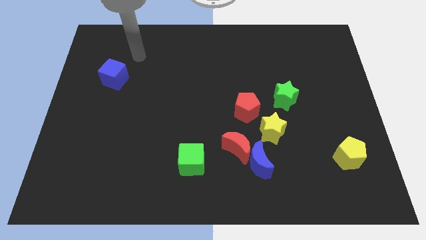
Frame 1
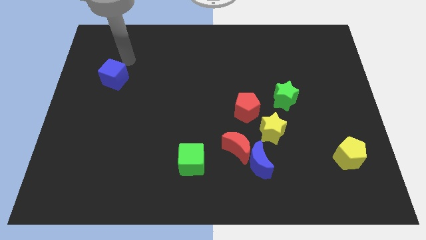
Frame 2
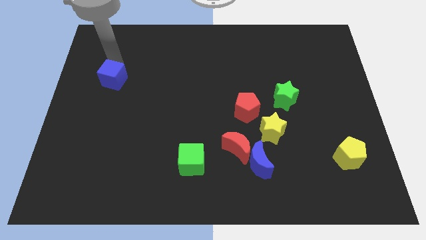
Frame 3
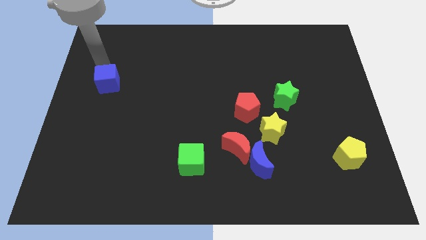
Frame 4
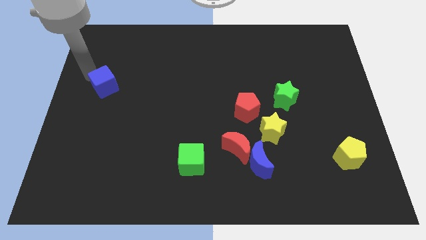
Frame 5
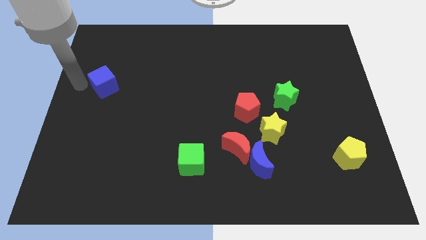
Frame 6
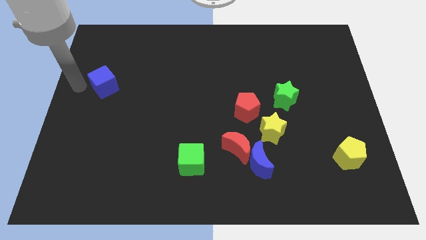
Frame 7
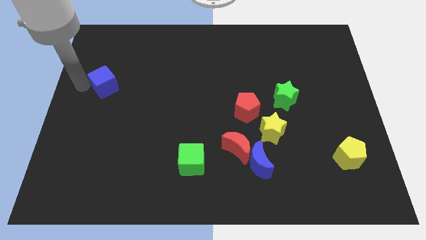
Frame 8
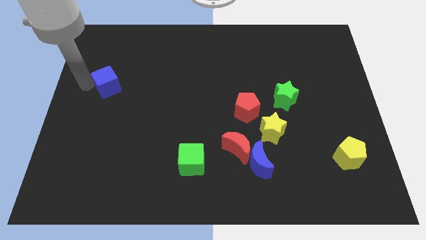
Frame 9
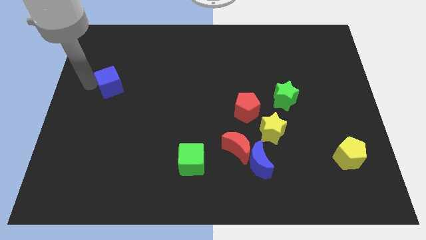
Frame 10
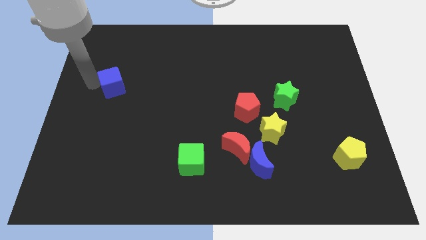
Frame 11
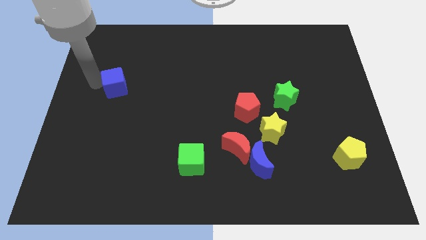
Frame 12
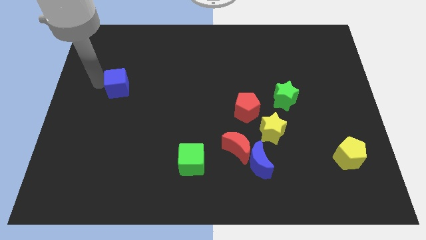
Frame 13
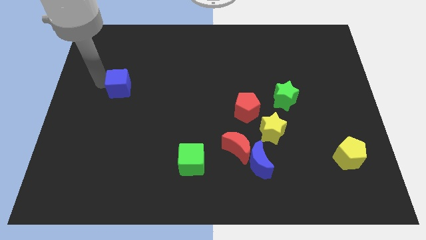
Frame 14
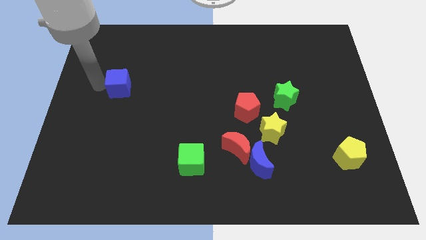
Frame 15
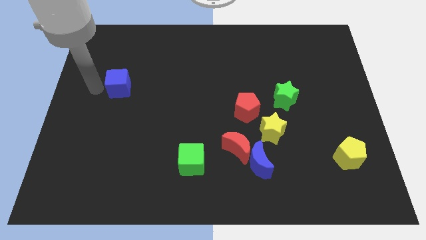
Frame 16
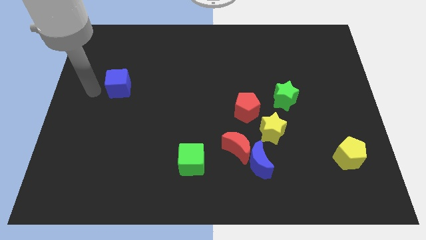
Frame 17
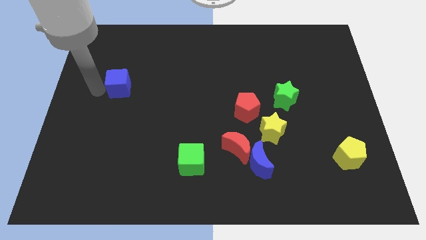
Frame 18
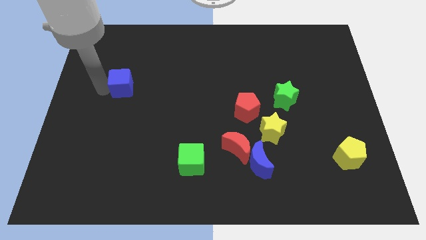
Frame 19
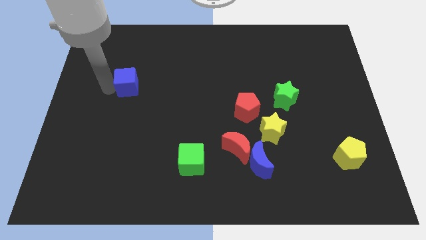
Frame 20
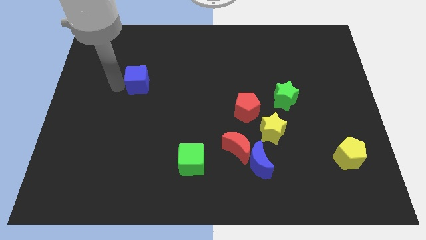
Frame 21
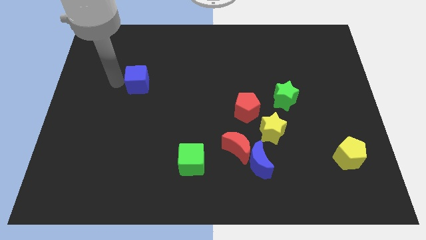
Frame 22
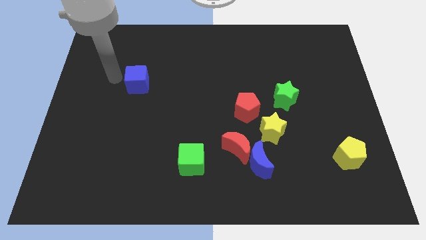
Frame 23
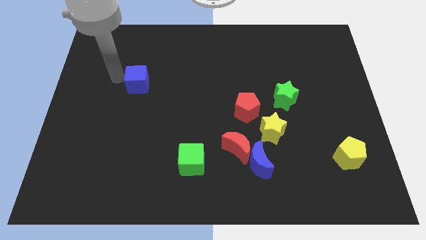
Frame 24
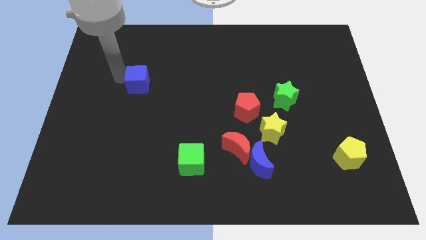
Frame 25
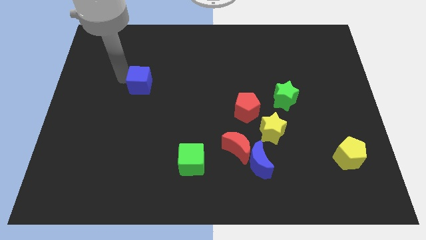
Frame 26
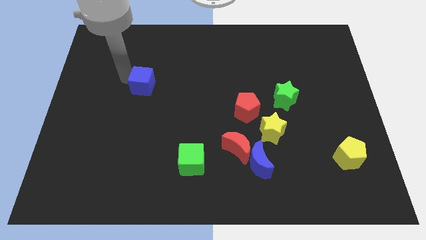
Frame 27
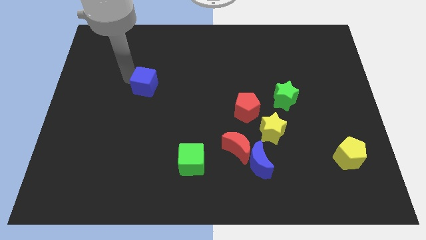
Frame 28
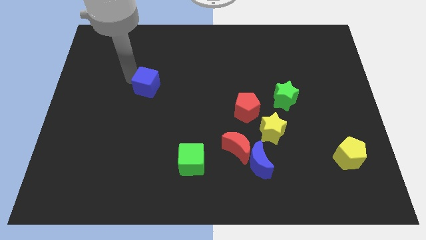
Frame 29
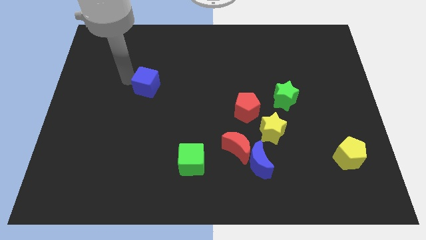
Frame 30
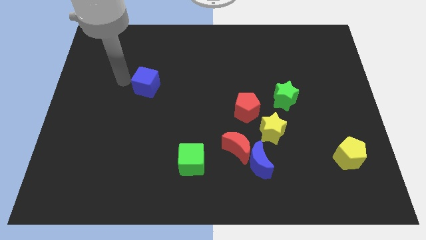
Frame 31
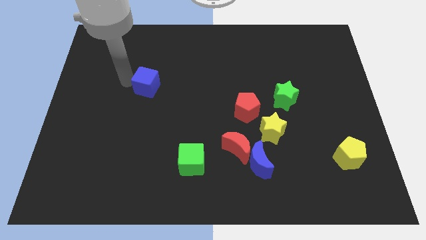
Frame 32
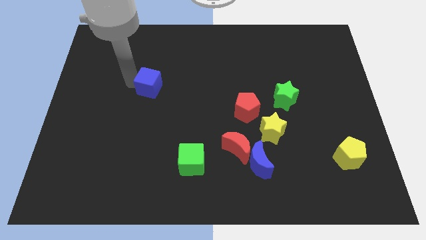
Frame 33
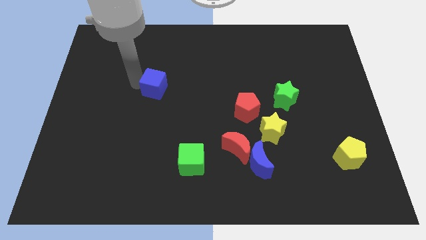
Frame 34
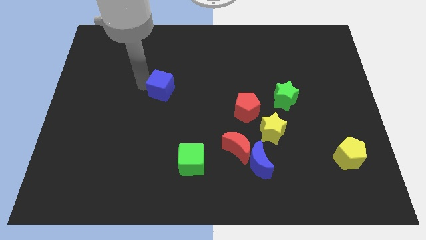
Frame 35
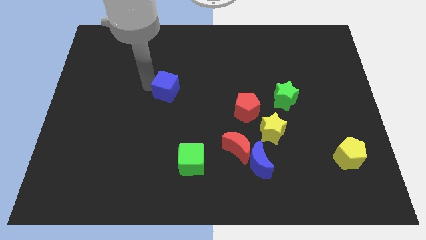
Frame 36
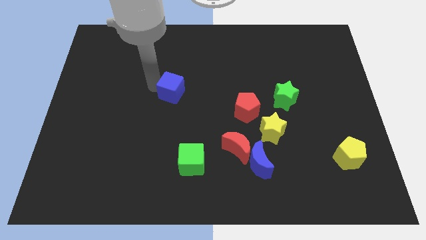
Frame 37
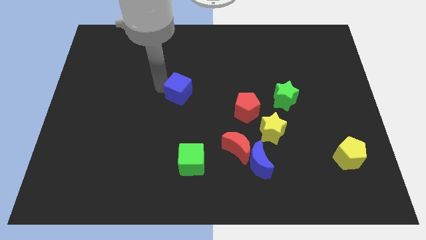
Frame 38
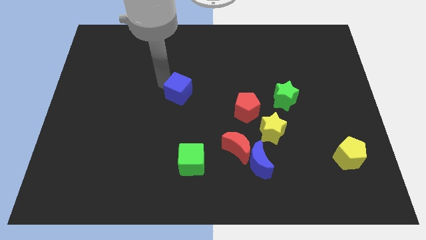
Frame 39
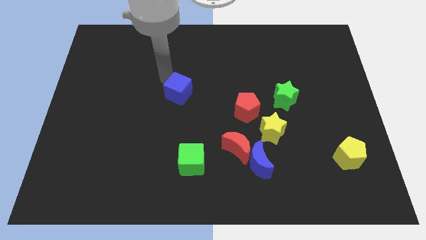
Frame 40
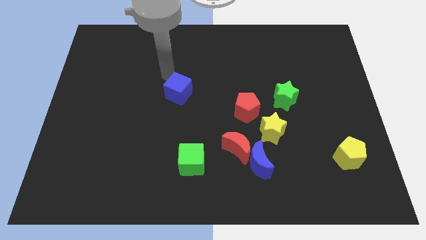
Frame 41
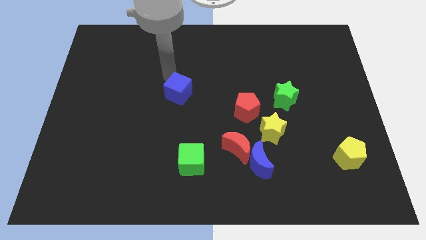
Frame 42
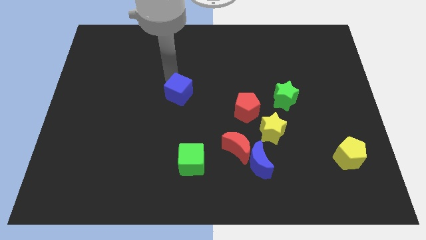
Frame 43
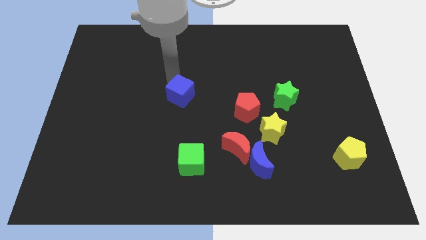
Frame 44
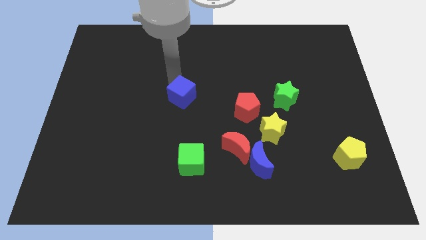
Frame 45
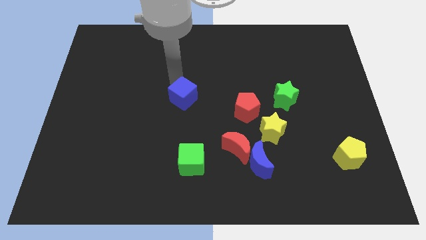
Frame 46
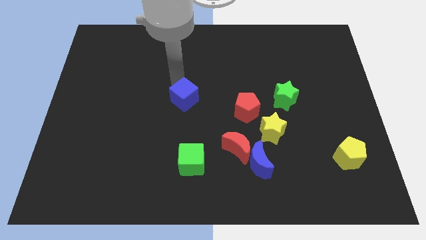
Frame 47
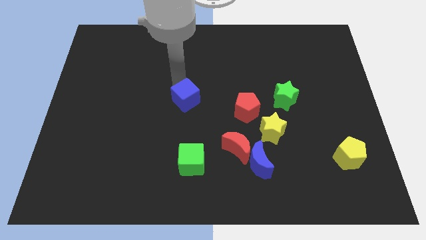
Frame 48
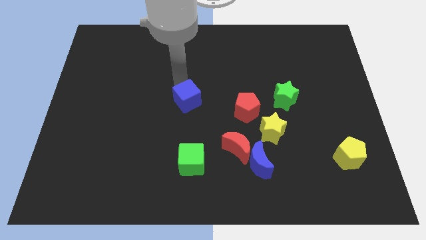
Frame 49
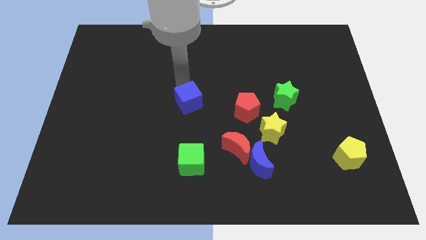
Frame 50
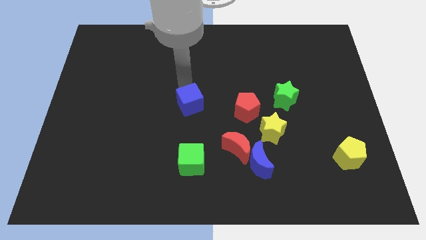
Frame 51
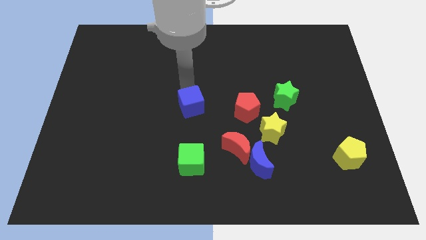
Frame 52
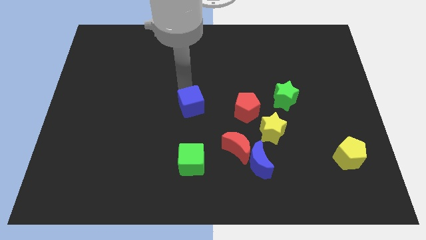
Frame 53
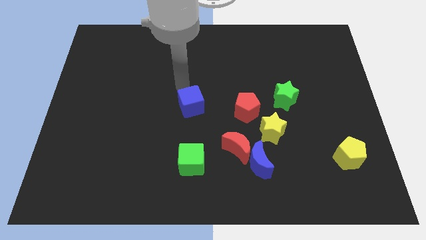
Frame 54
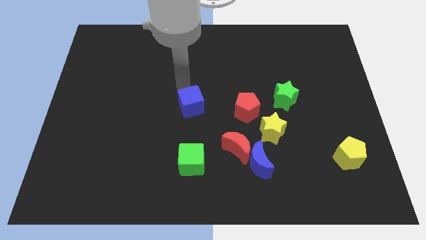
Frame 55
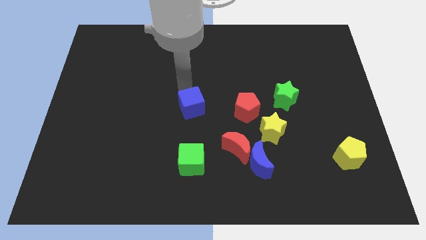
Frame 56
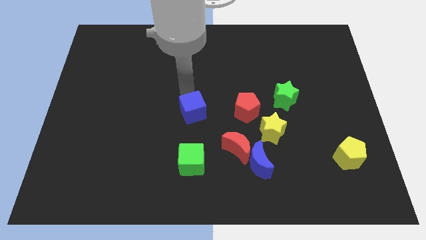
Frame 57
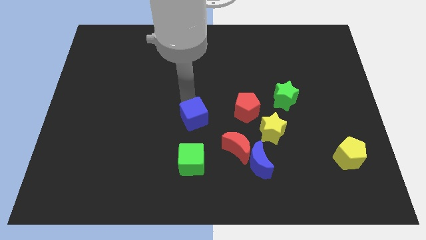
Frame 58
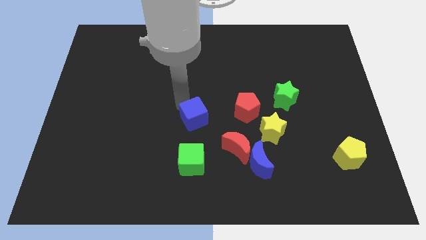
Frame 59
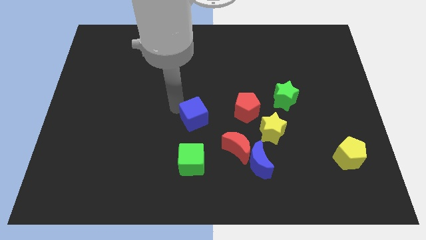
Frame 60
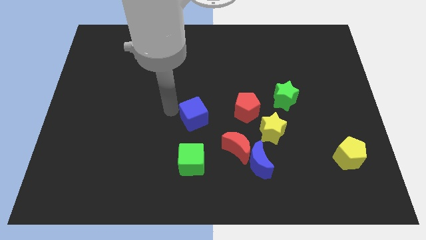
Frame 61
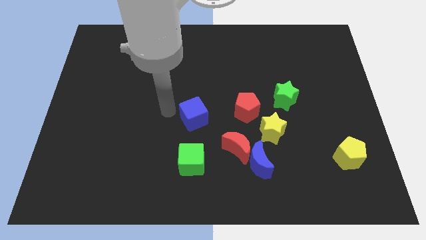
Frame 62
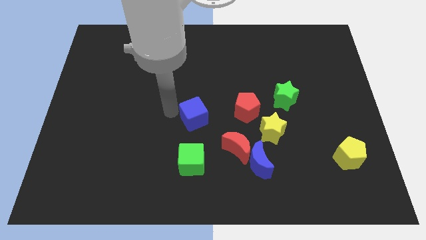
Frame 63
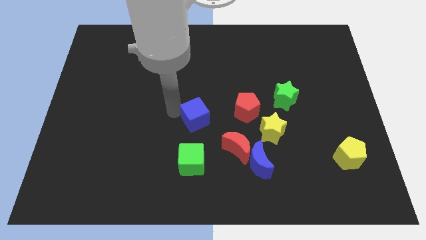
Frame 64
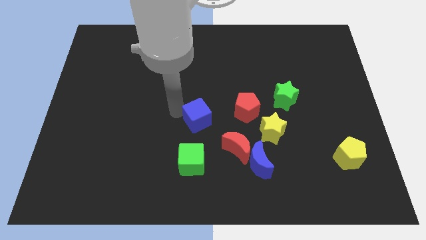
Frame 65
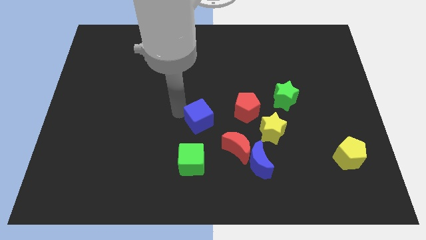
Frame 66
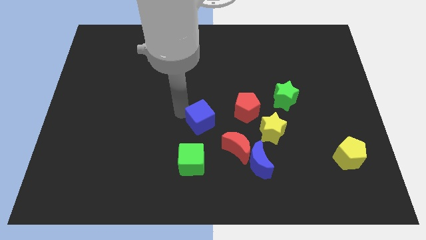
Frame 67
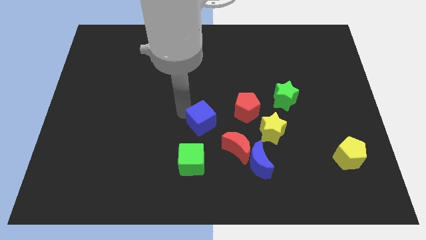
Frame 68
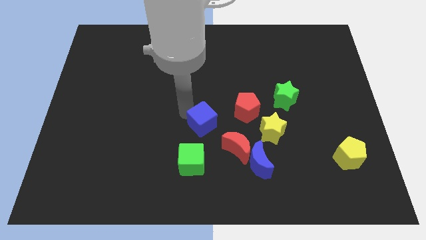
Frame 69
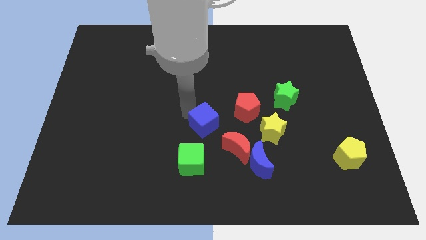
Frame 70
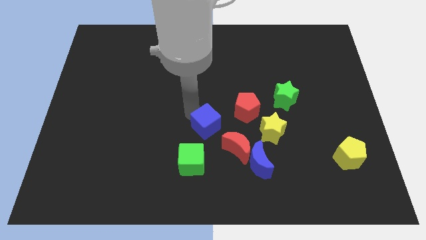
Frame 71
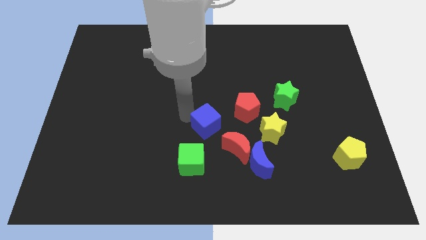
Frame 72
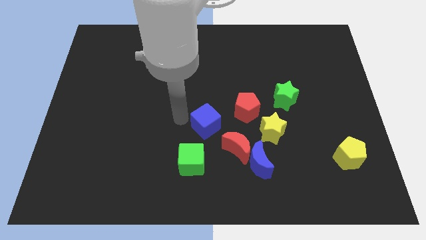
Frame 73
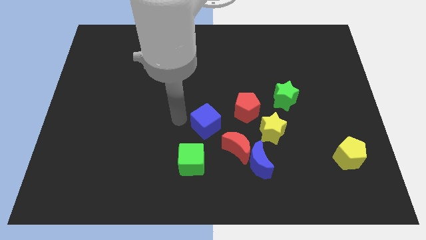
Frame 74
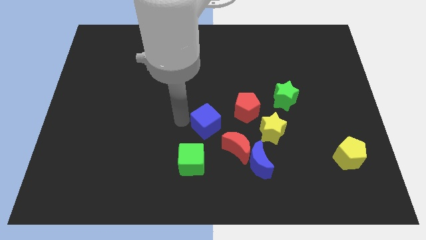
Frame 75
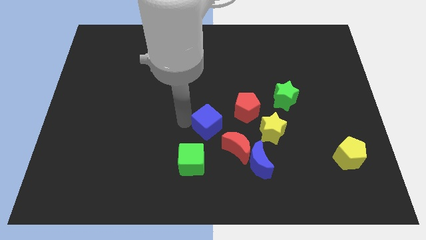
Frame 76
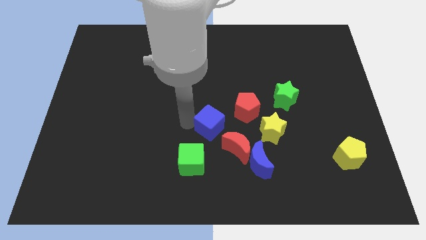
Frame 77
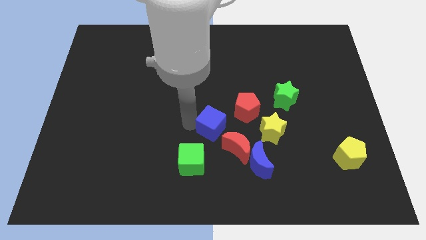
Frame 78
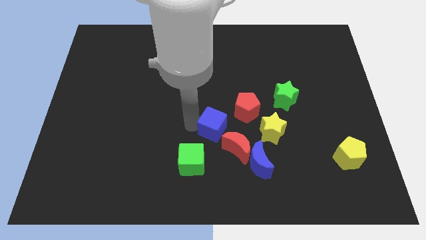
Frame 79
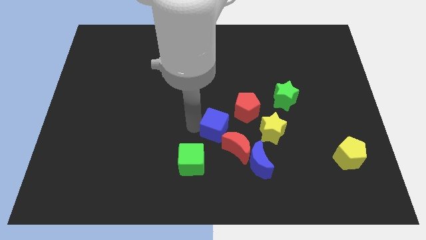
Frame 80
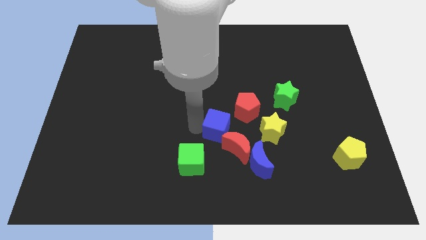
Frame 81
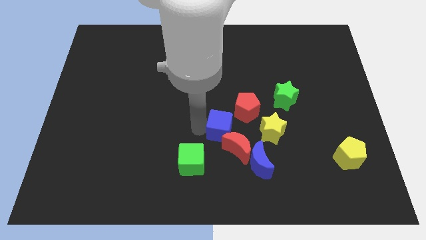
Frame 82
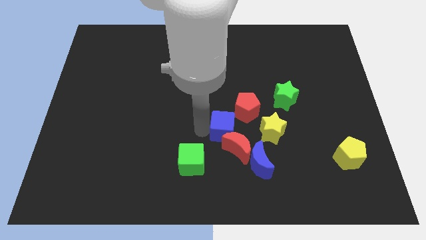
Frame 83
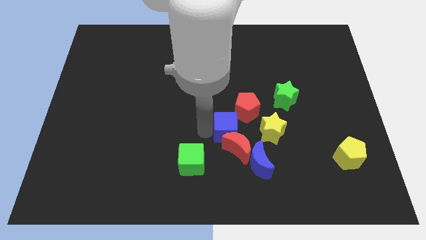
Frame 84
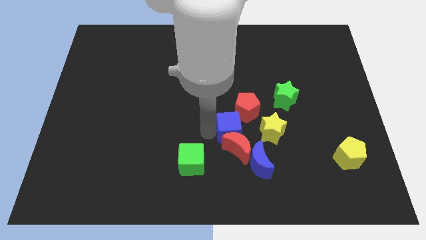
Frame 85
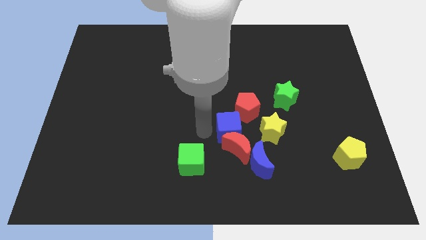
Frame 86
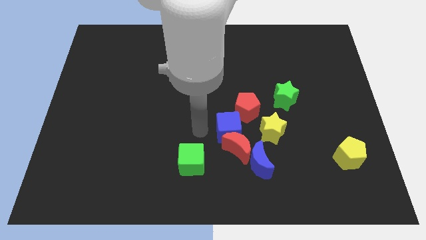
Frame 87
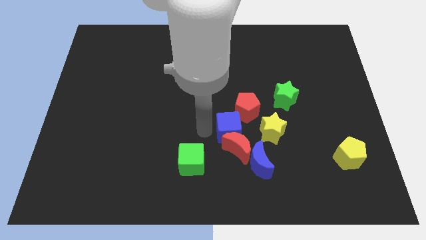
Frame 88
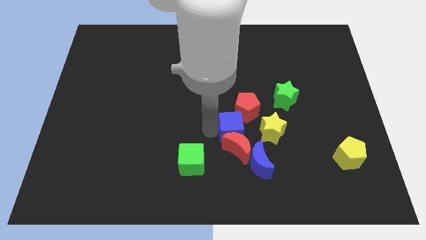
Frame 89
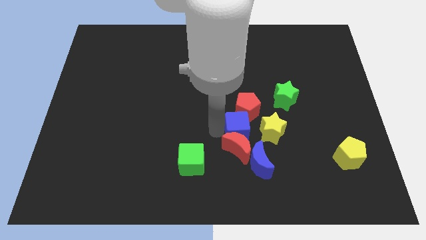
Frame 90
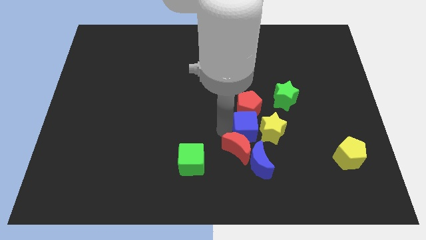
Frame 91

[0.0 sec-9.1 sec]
push the blue cube next to the yellow star
